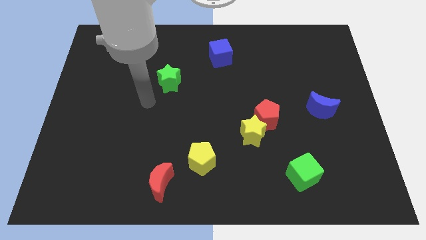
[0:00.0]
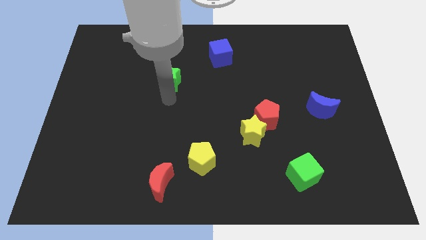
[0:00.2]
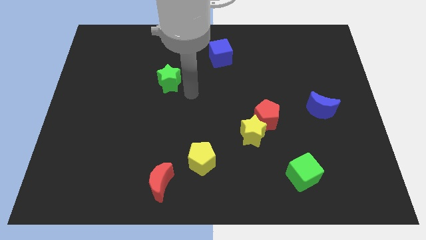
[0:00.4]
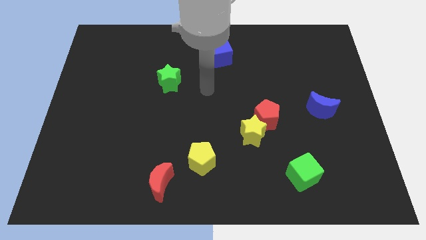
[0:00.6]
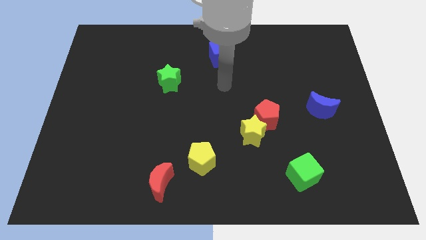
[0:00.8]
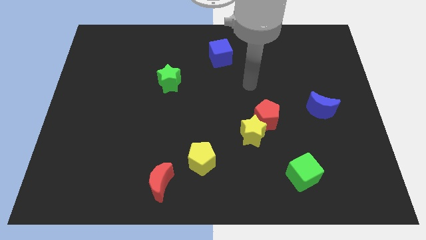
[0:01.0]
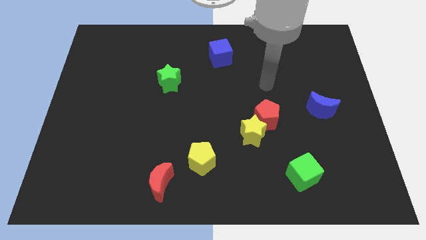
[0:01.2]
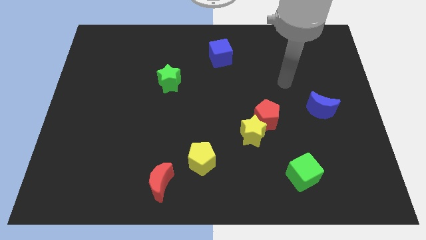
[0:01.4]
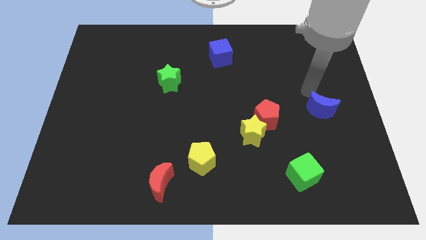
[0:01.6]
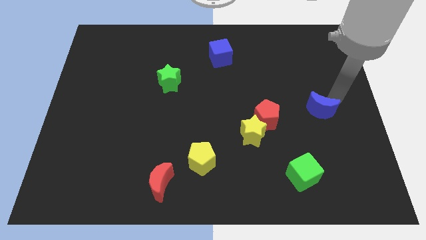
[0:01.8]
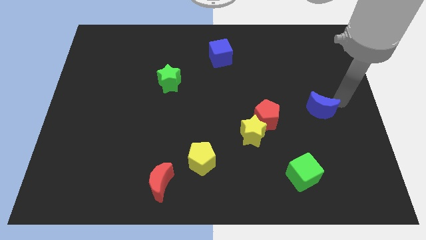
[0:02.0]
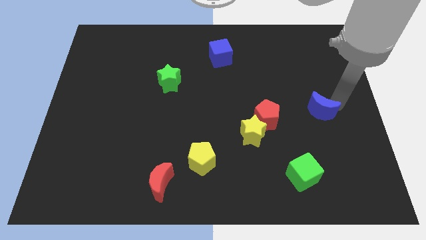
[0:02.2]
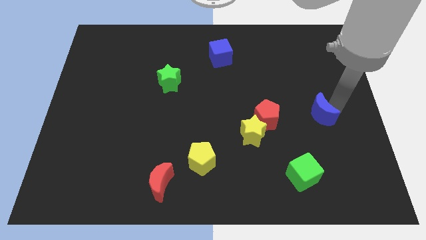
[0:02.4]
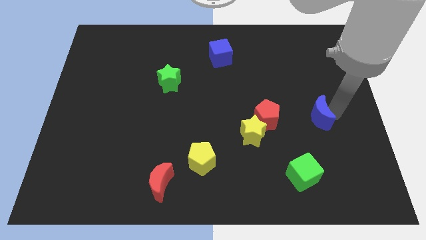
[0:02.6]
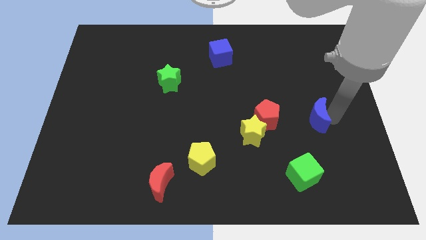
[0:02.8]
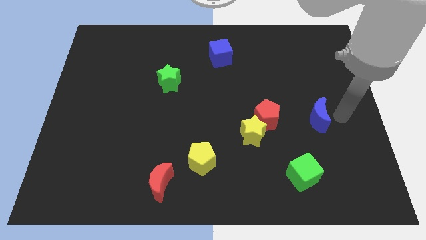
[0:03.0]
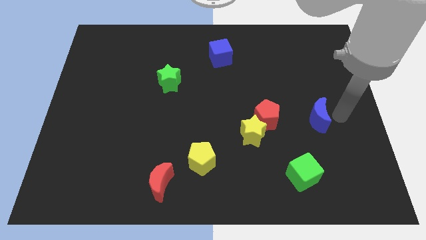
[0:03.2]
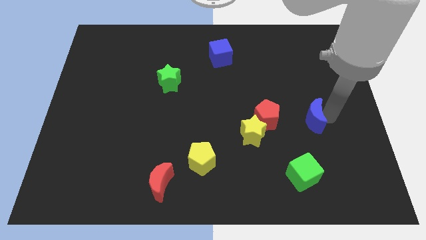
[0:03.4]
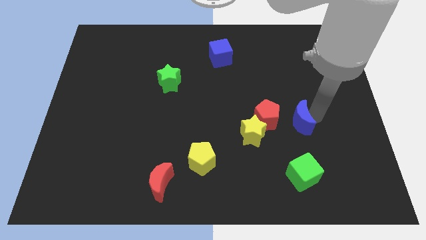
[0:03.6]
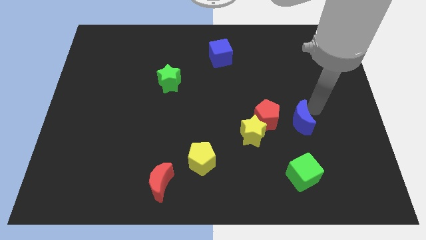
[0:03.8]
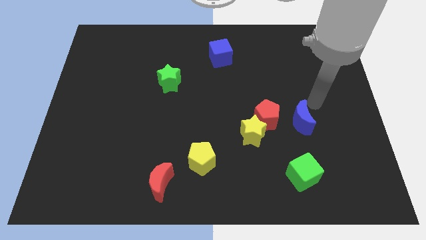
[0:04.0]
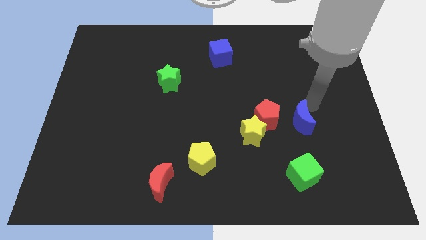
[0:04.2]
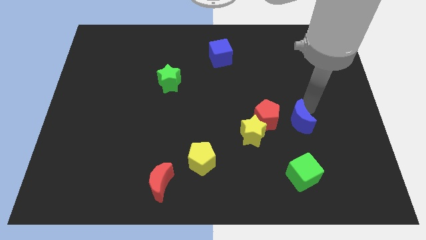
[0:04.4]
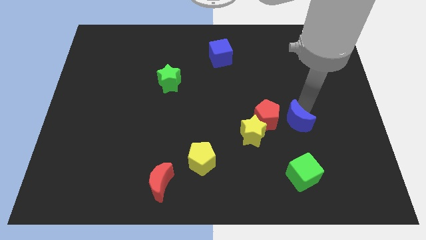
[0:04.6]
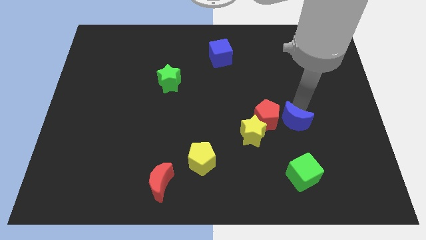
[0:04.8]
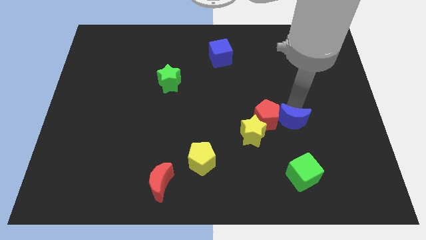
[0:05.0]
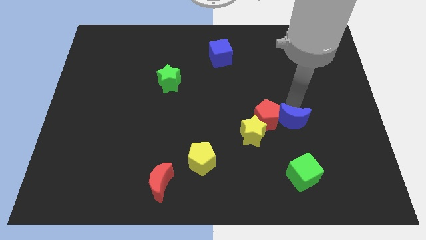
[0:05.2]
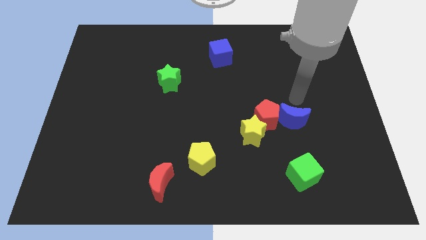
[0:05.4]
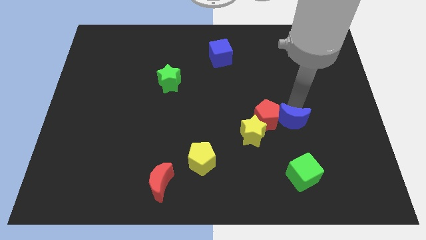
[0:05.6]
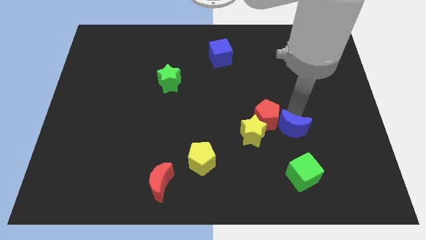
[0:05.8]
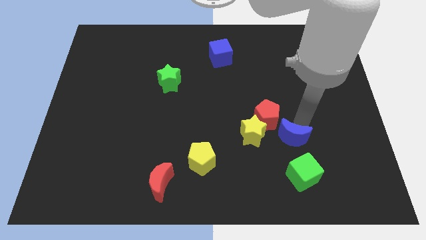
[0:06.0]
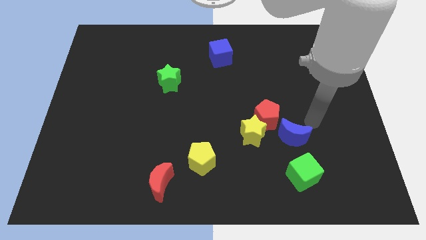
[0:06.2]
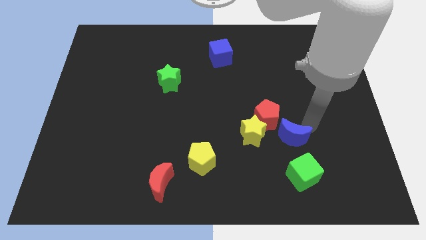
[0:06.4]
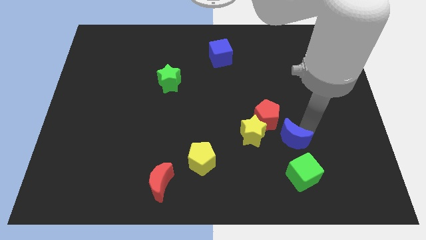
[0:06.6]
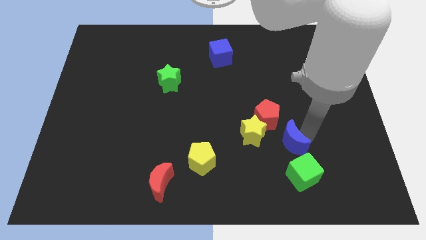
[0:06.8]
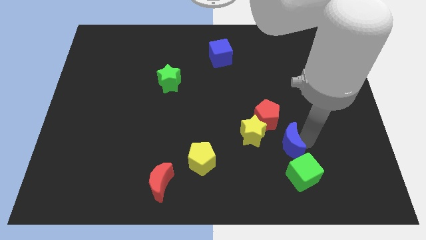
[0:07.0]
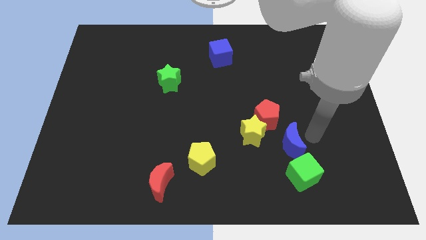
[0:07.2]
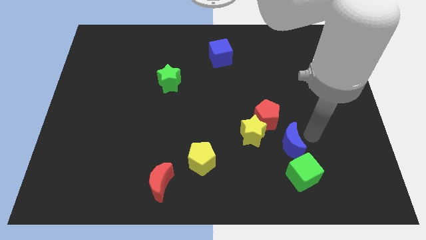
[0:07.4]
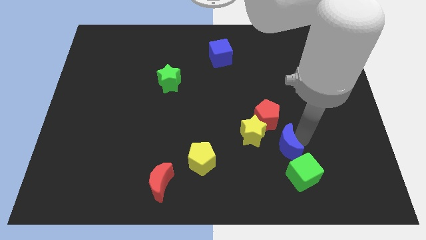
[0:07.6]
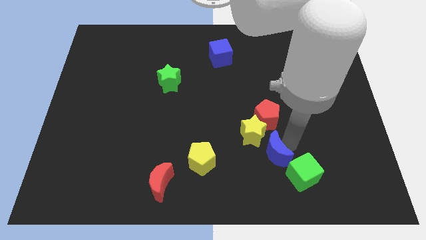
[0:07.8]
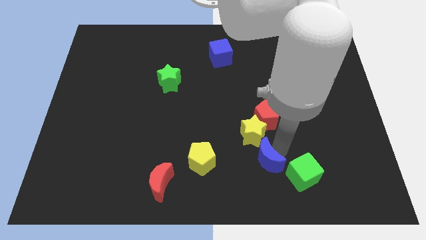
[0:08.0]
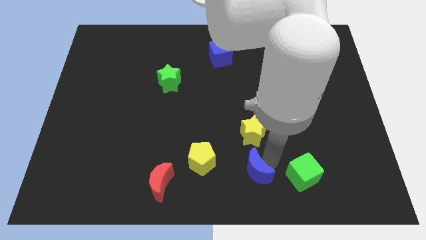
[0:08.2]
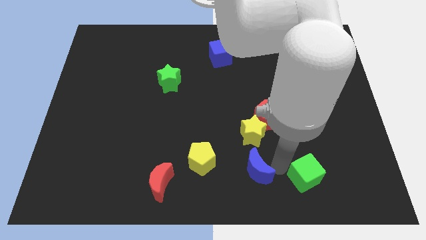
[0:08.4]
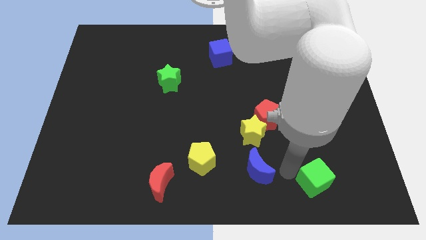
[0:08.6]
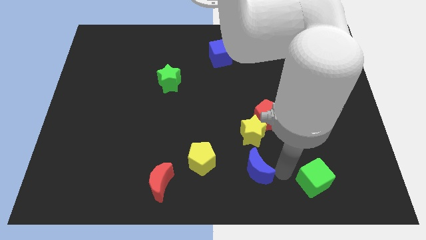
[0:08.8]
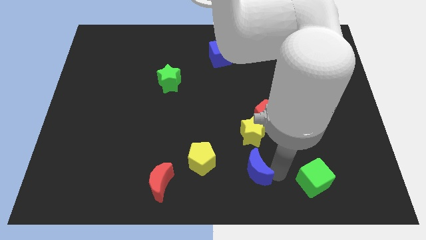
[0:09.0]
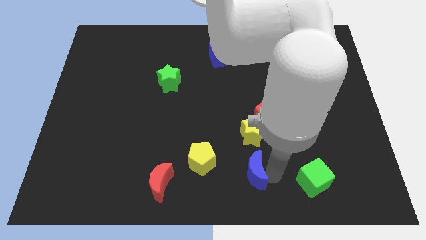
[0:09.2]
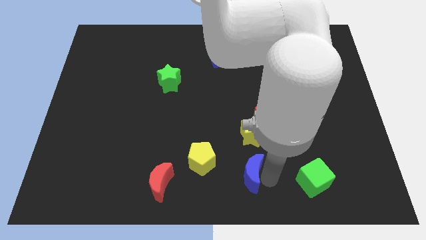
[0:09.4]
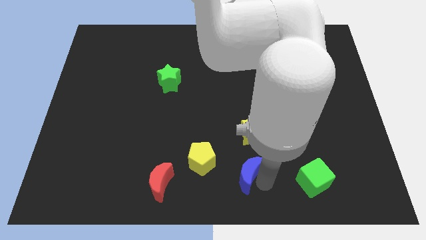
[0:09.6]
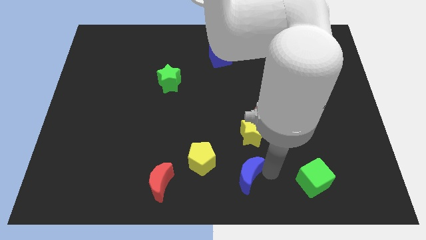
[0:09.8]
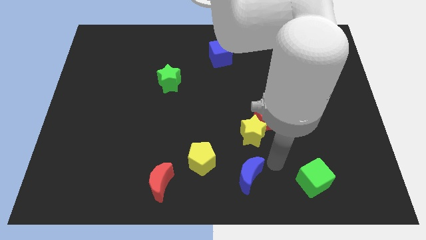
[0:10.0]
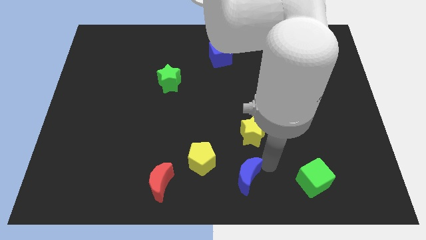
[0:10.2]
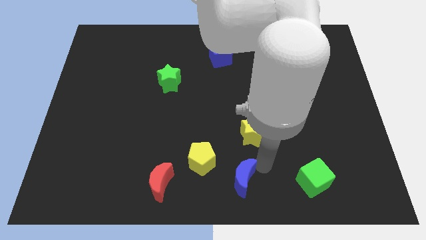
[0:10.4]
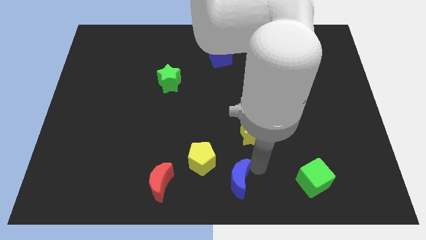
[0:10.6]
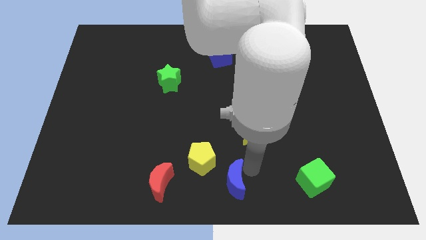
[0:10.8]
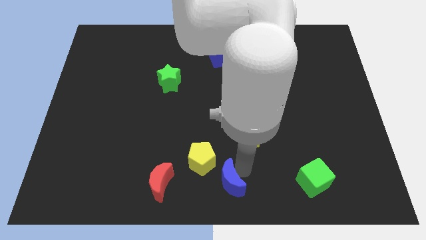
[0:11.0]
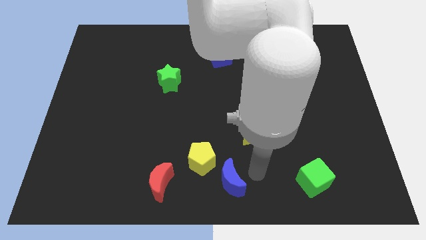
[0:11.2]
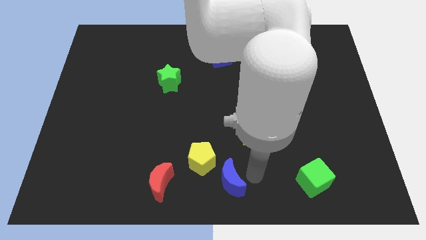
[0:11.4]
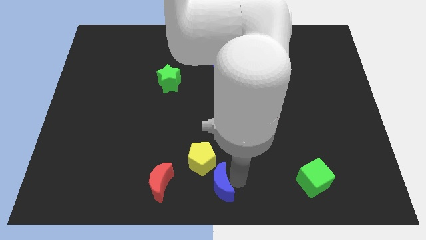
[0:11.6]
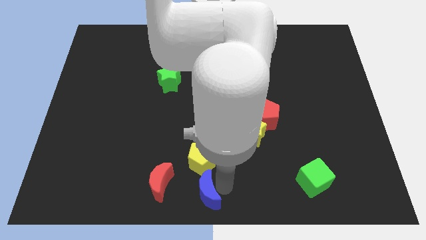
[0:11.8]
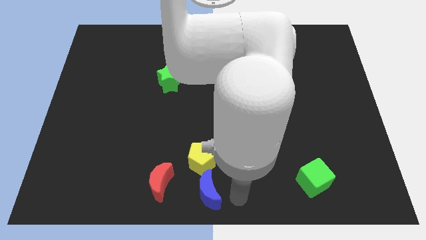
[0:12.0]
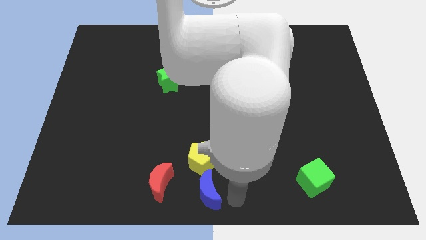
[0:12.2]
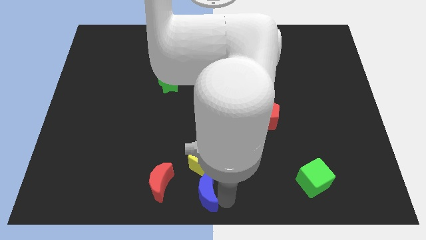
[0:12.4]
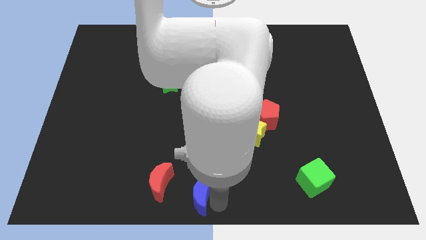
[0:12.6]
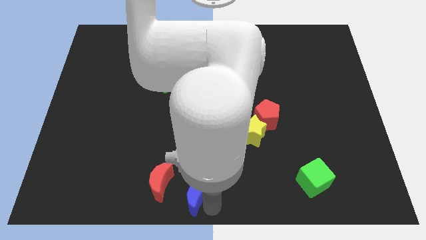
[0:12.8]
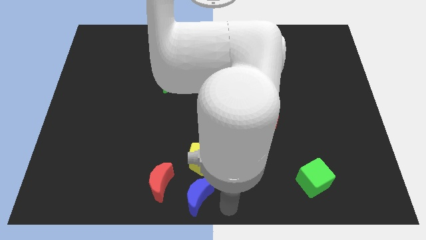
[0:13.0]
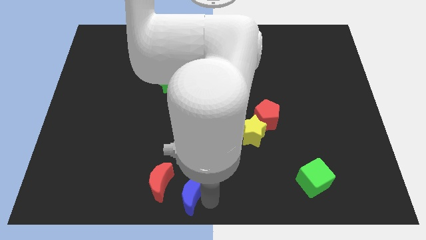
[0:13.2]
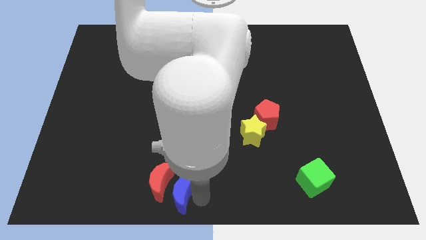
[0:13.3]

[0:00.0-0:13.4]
slide the blue moon towards the red moon

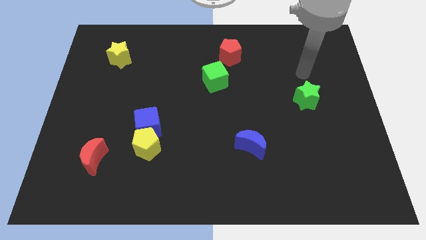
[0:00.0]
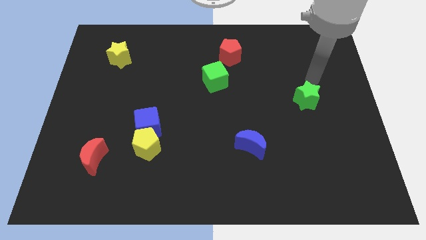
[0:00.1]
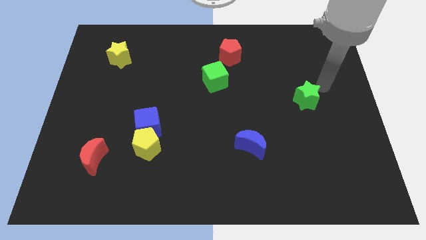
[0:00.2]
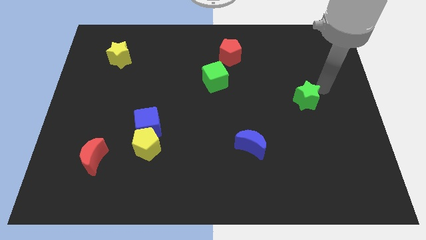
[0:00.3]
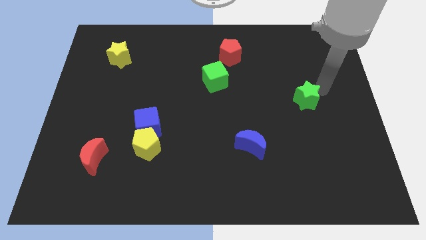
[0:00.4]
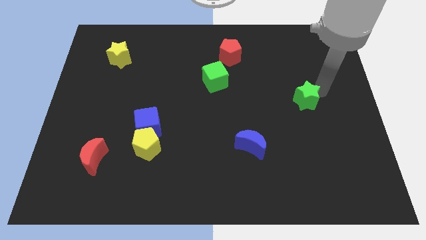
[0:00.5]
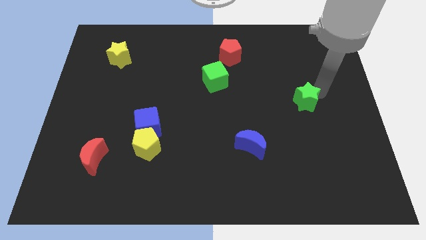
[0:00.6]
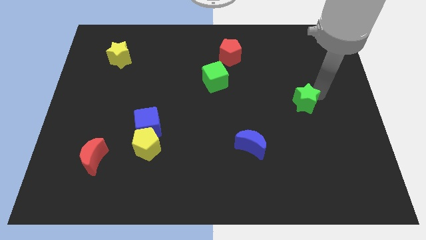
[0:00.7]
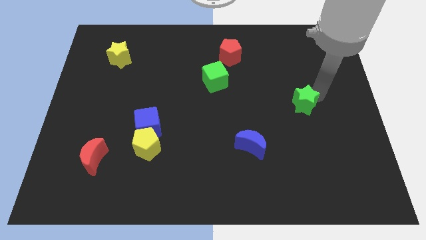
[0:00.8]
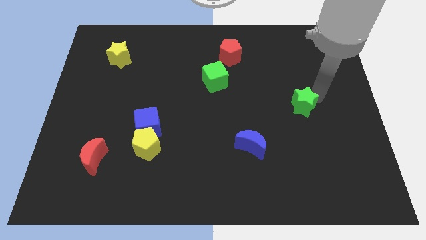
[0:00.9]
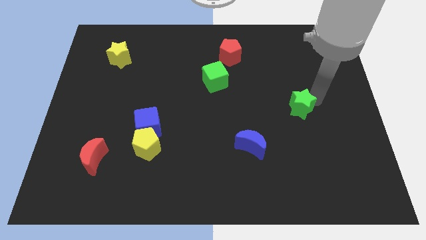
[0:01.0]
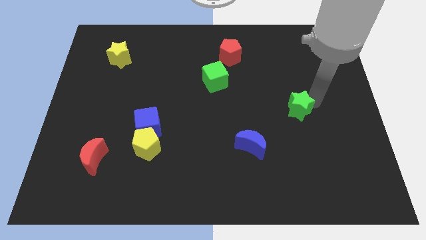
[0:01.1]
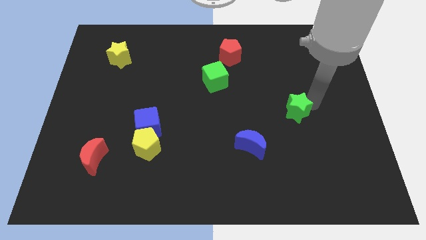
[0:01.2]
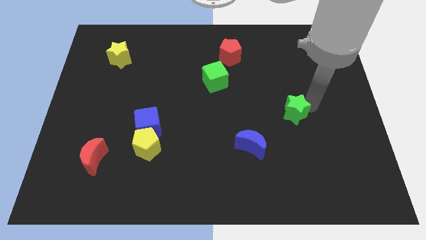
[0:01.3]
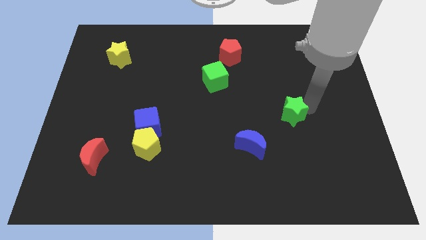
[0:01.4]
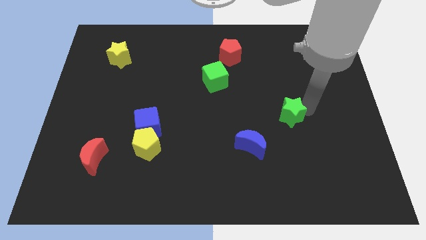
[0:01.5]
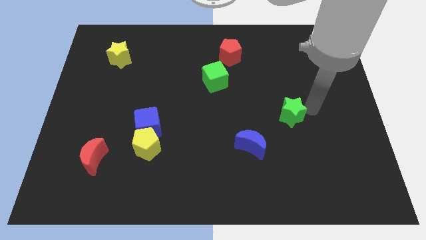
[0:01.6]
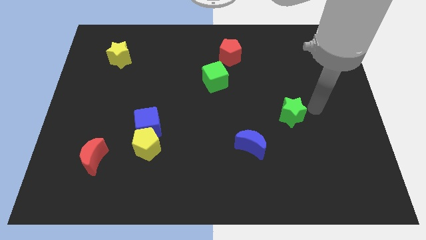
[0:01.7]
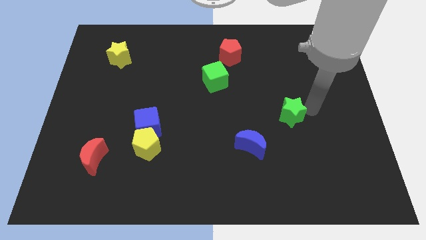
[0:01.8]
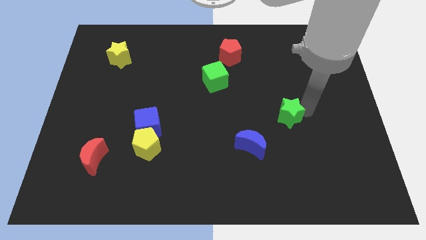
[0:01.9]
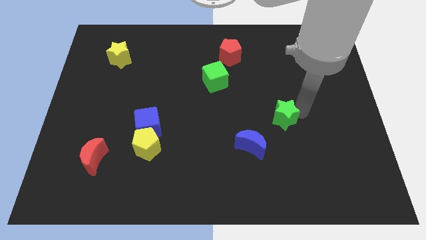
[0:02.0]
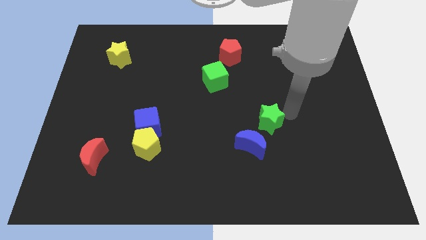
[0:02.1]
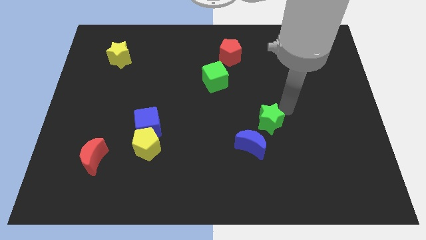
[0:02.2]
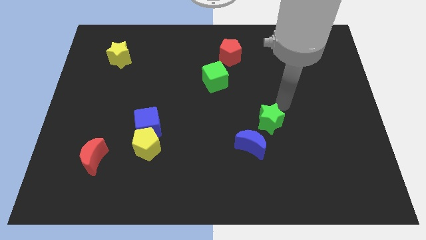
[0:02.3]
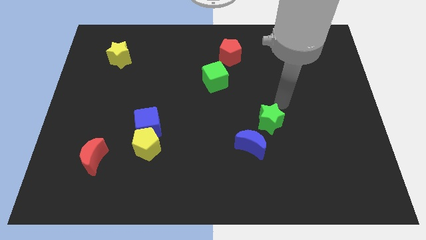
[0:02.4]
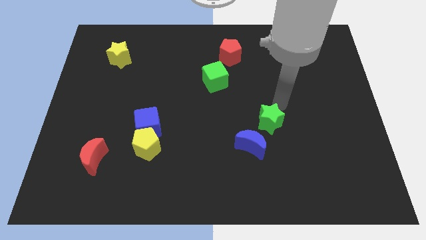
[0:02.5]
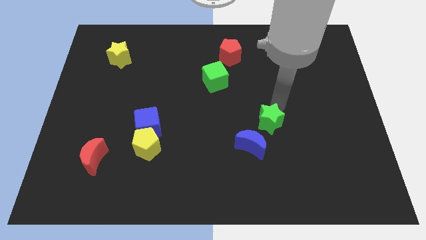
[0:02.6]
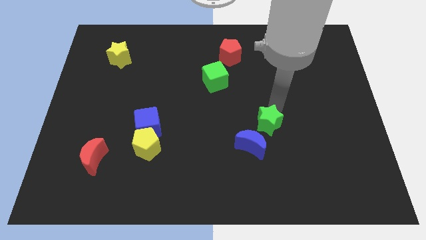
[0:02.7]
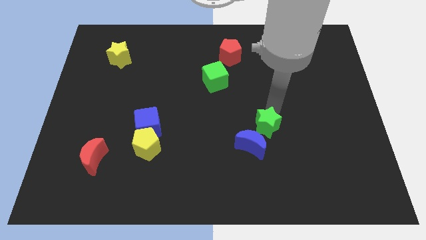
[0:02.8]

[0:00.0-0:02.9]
push the green star next to the blue moon
